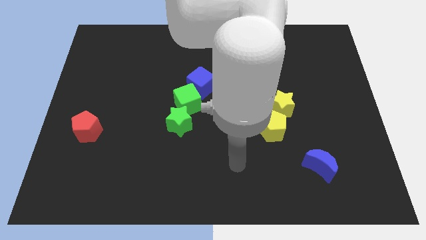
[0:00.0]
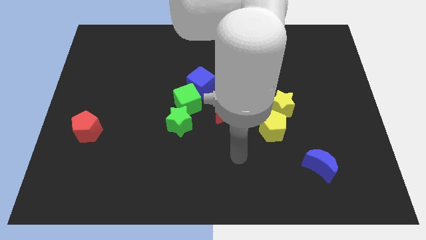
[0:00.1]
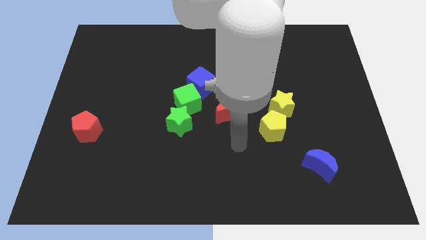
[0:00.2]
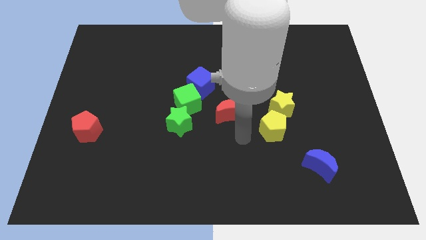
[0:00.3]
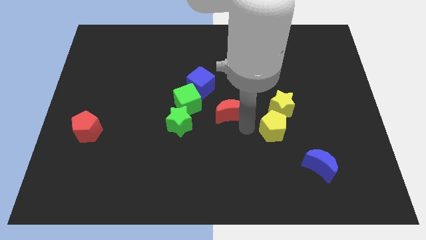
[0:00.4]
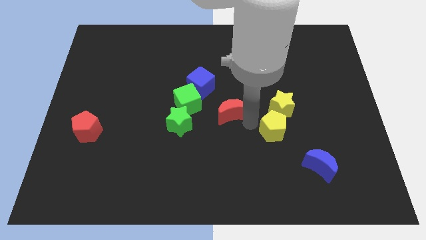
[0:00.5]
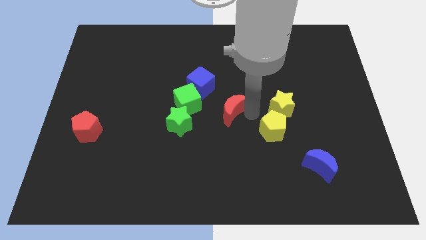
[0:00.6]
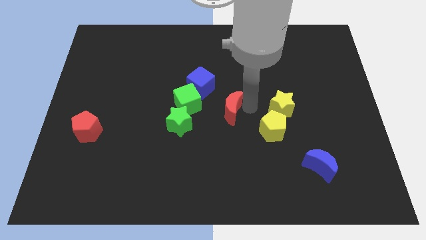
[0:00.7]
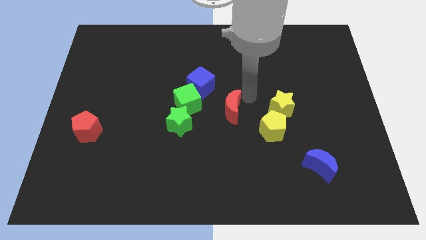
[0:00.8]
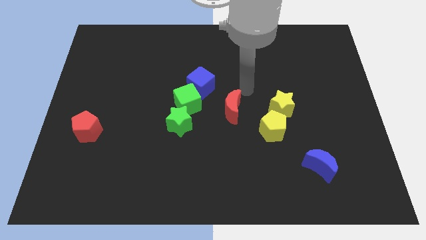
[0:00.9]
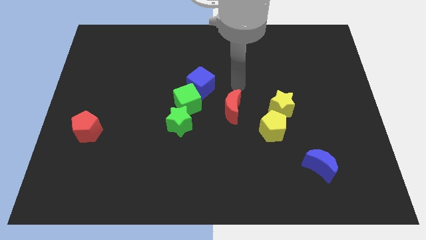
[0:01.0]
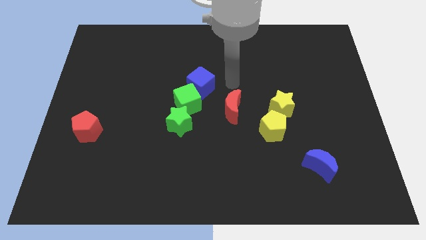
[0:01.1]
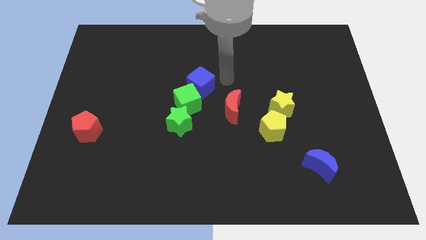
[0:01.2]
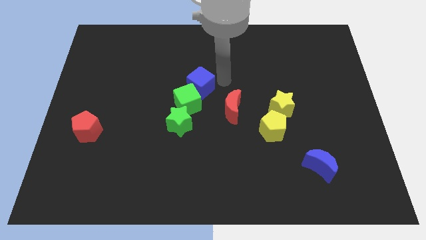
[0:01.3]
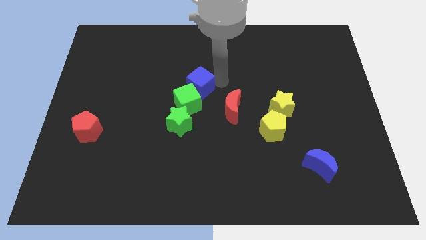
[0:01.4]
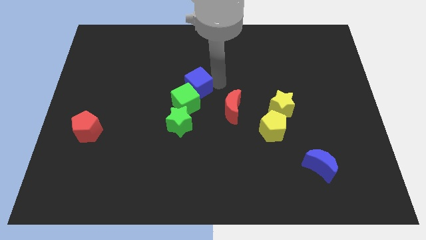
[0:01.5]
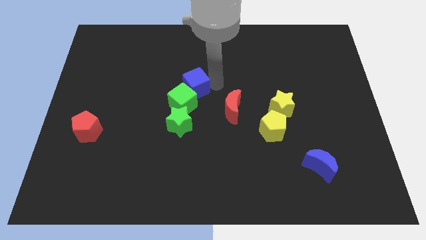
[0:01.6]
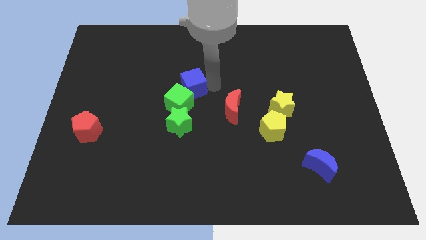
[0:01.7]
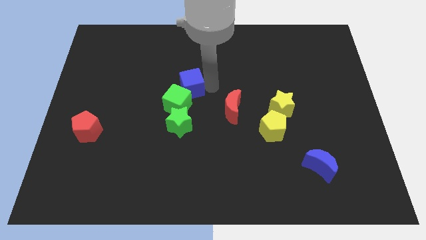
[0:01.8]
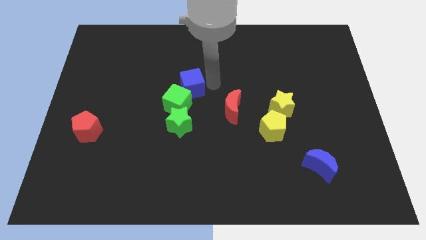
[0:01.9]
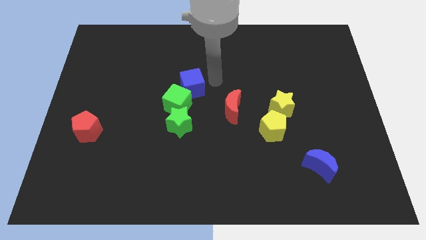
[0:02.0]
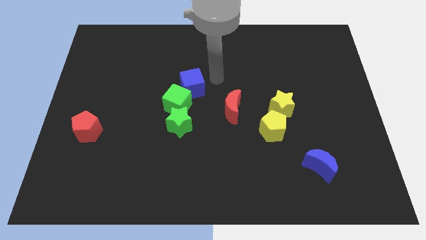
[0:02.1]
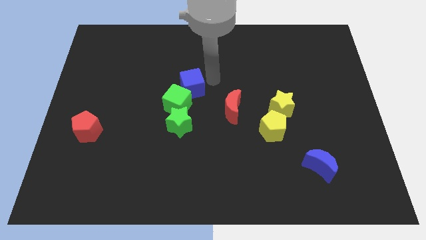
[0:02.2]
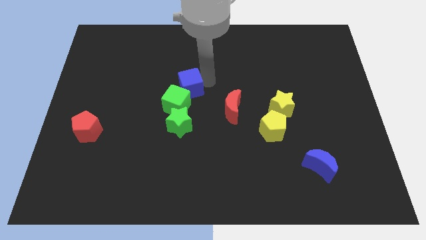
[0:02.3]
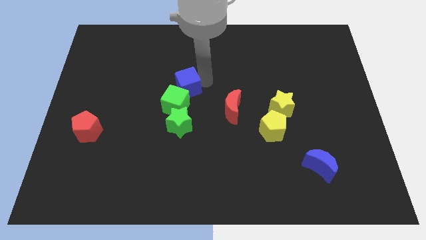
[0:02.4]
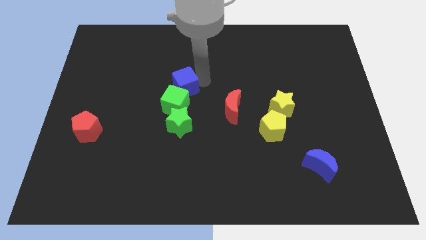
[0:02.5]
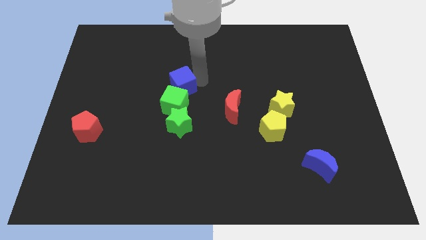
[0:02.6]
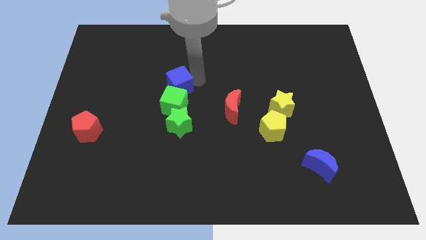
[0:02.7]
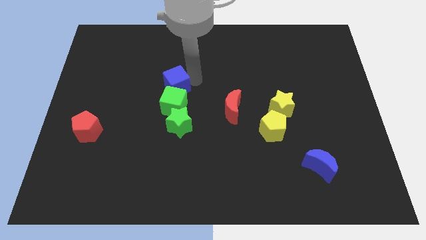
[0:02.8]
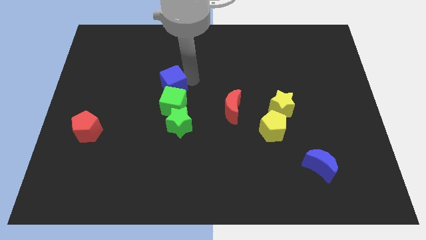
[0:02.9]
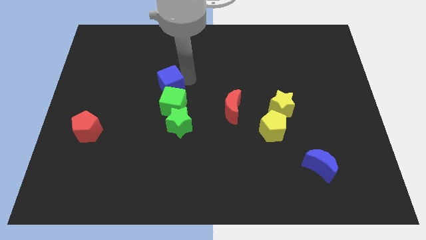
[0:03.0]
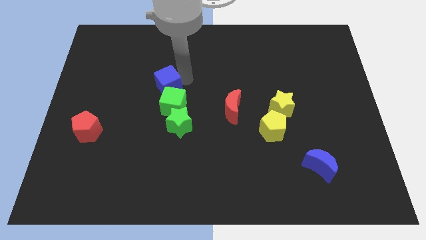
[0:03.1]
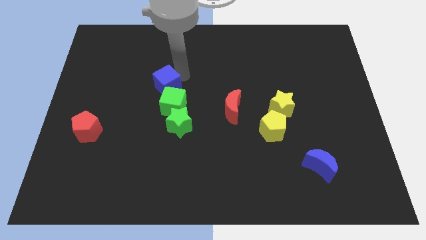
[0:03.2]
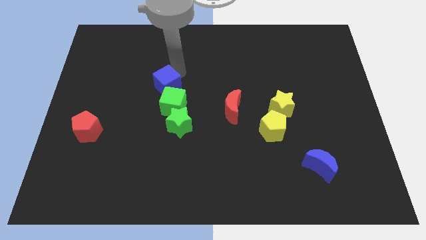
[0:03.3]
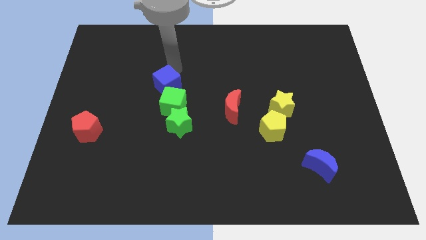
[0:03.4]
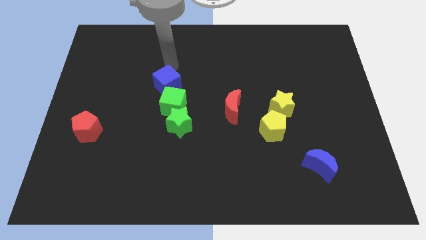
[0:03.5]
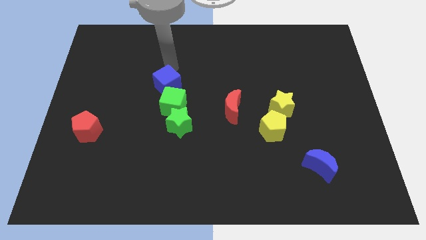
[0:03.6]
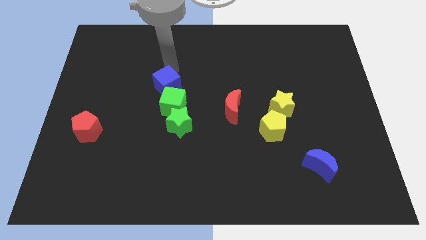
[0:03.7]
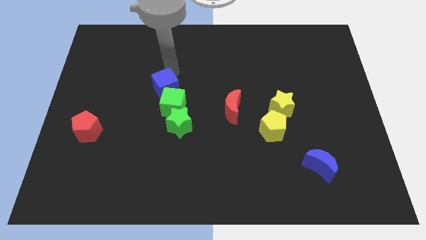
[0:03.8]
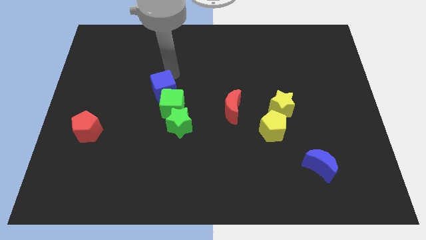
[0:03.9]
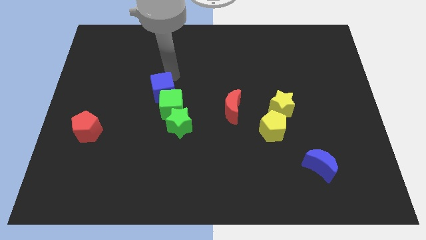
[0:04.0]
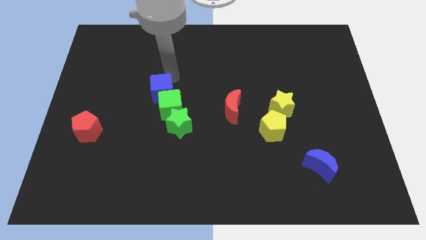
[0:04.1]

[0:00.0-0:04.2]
move the blue cube a bit diagonally down and left

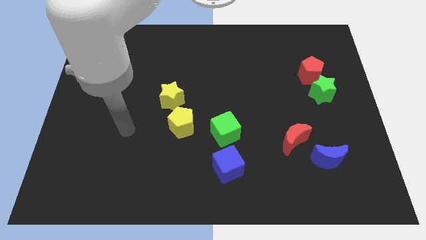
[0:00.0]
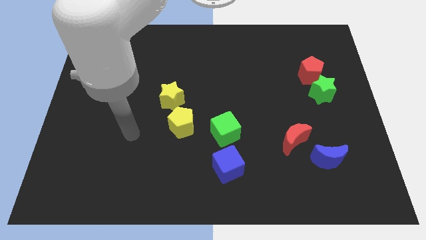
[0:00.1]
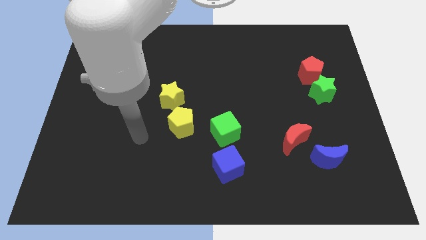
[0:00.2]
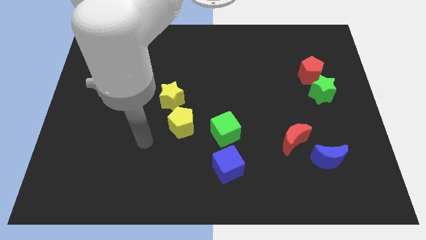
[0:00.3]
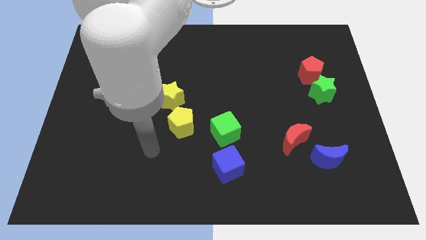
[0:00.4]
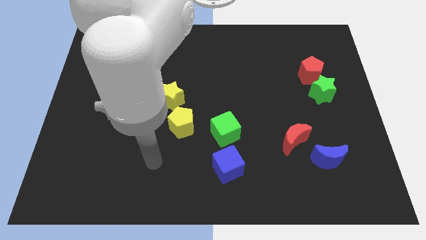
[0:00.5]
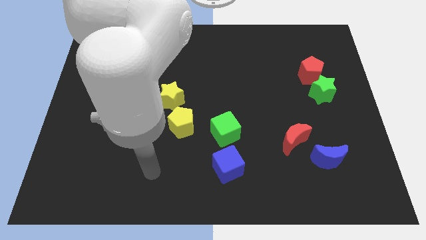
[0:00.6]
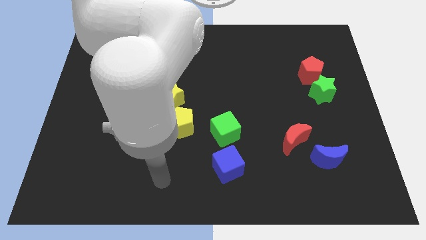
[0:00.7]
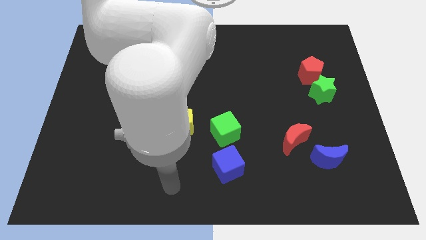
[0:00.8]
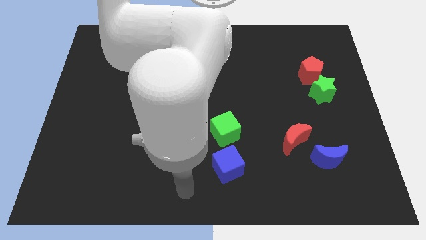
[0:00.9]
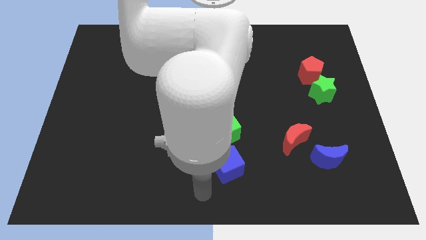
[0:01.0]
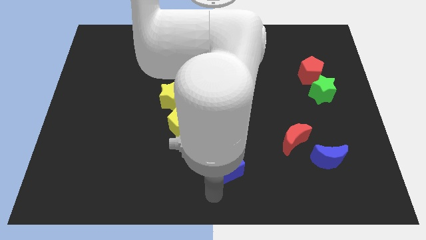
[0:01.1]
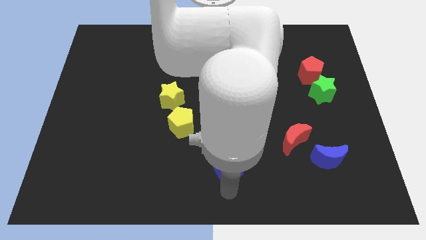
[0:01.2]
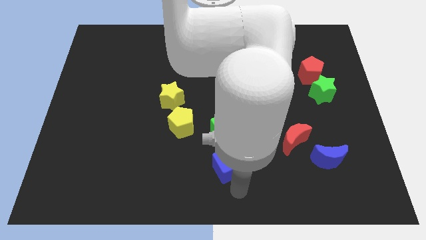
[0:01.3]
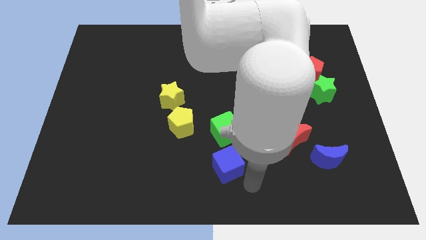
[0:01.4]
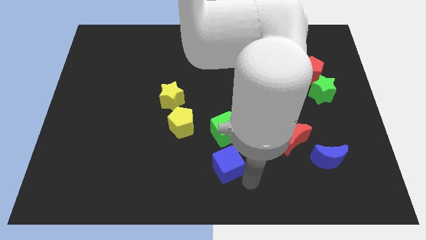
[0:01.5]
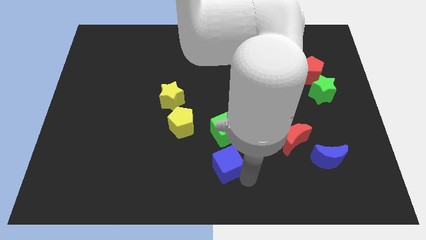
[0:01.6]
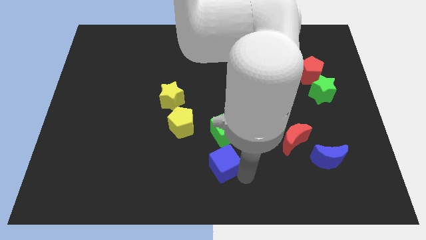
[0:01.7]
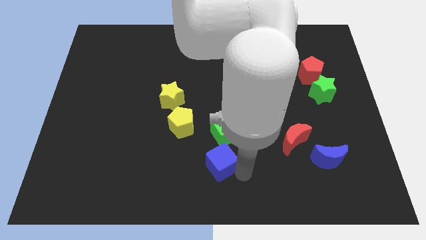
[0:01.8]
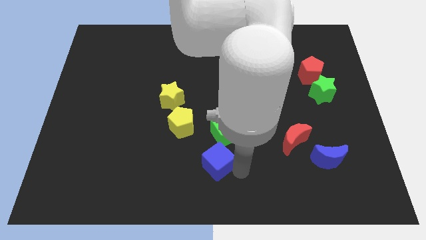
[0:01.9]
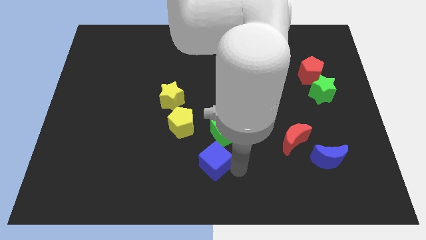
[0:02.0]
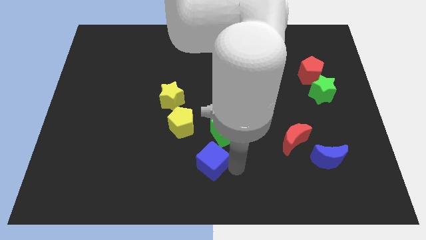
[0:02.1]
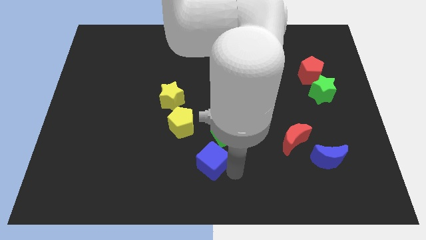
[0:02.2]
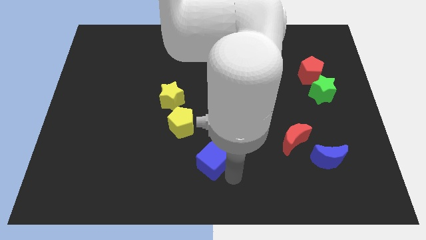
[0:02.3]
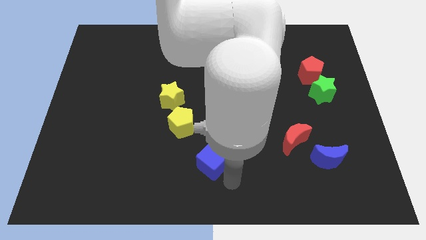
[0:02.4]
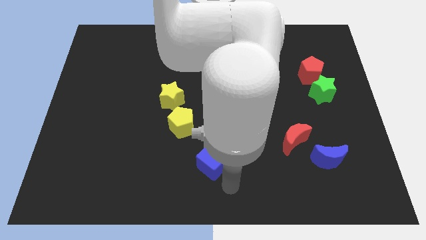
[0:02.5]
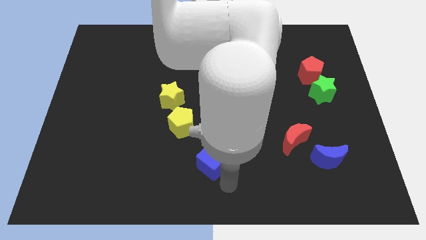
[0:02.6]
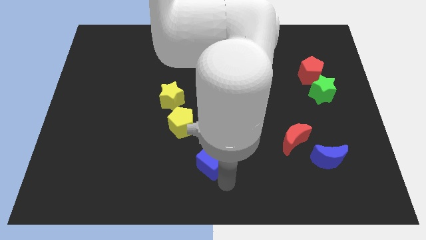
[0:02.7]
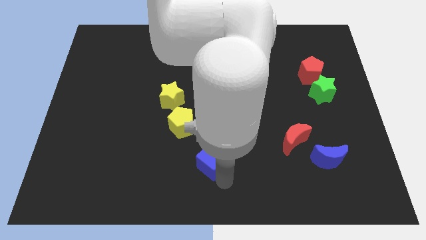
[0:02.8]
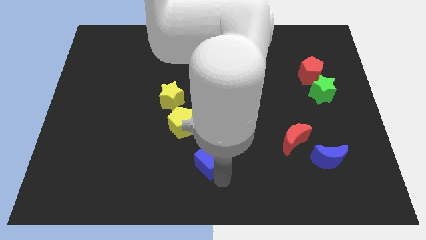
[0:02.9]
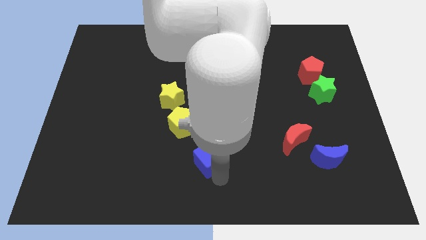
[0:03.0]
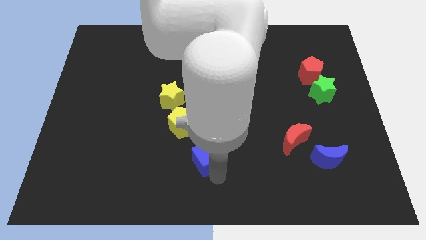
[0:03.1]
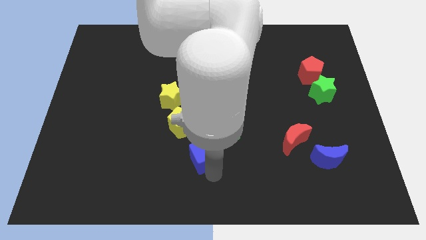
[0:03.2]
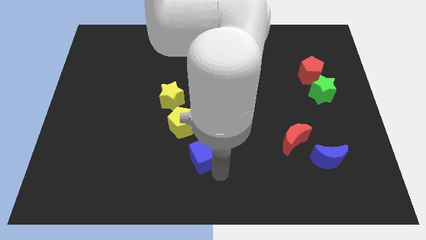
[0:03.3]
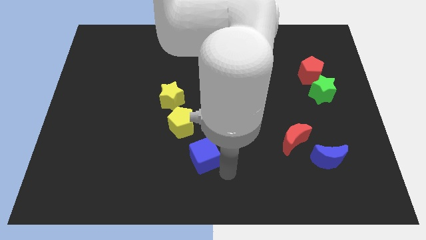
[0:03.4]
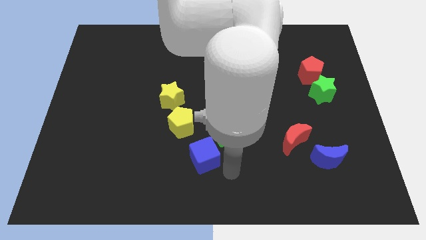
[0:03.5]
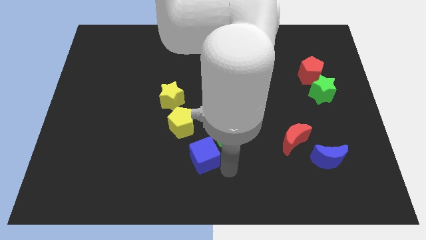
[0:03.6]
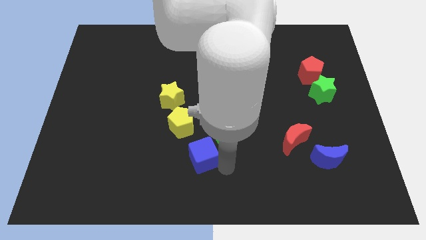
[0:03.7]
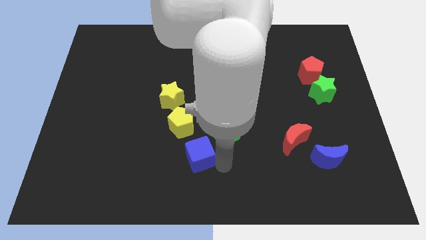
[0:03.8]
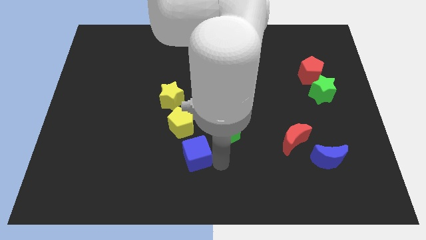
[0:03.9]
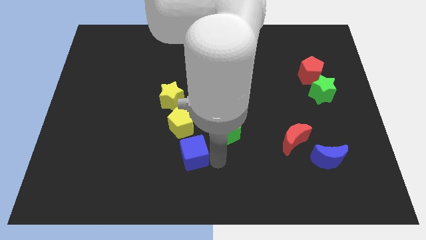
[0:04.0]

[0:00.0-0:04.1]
slightly slide the blue cube upwards and to the left
